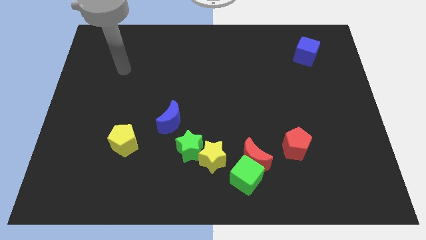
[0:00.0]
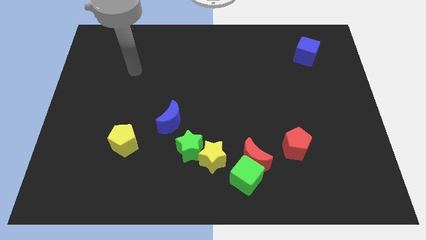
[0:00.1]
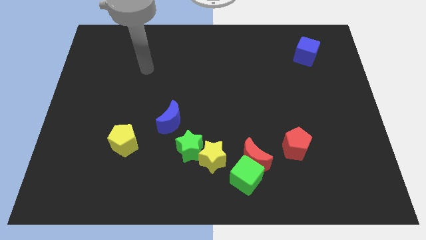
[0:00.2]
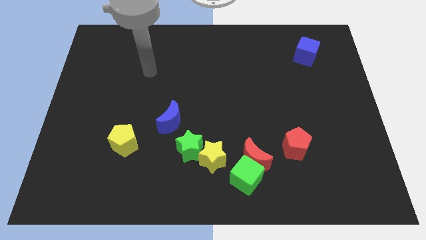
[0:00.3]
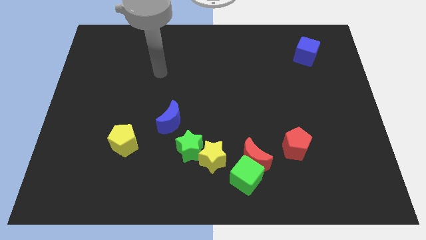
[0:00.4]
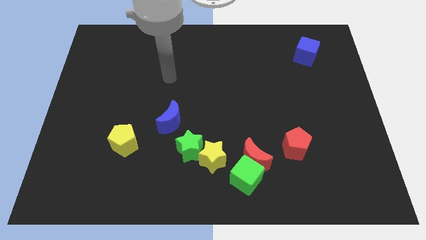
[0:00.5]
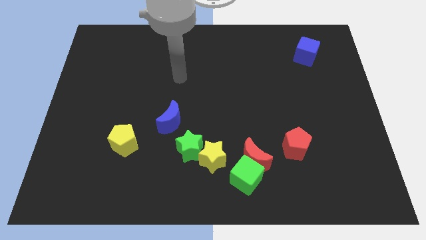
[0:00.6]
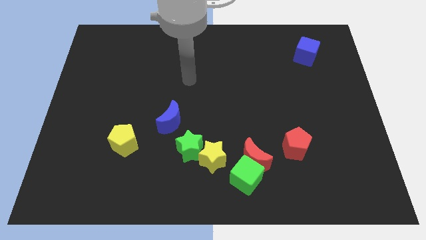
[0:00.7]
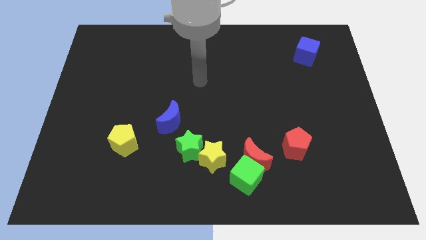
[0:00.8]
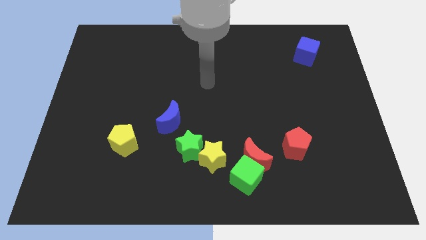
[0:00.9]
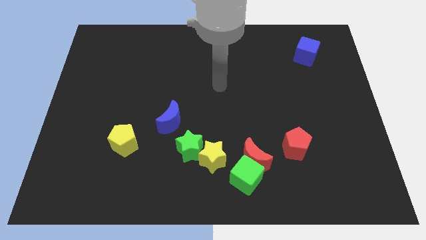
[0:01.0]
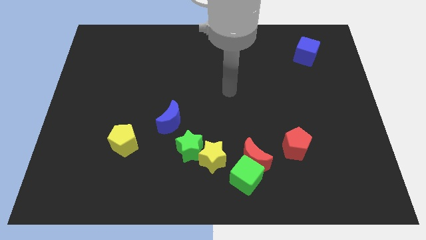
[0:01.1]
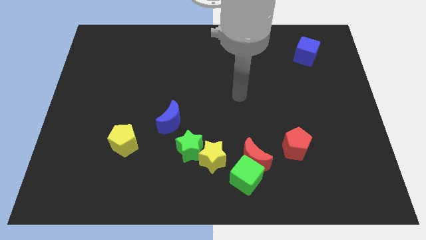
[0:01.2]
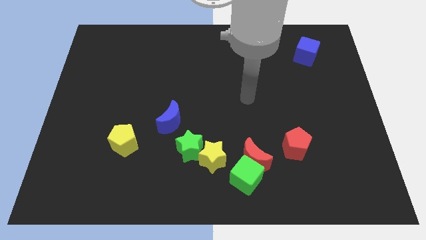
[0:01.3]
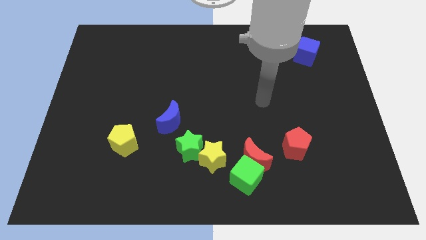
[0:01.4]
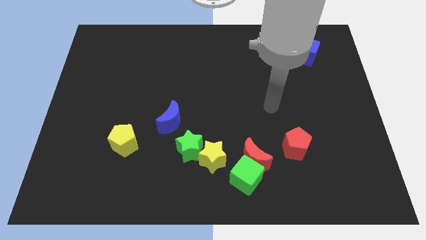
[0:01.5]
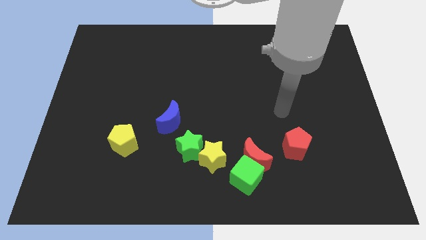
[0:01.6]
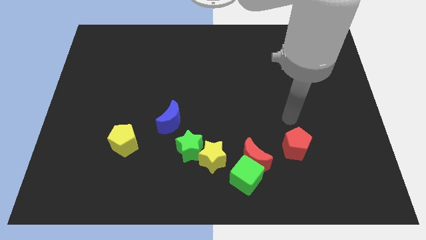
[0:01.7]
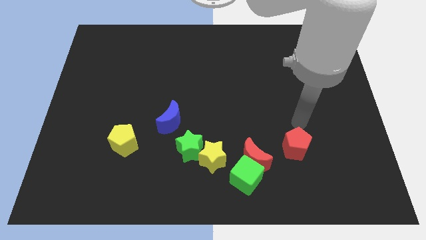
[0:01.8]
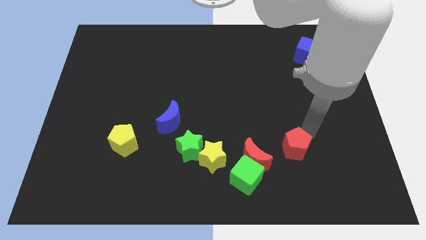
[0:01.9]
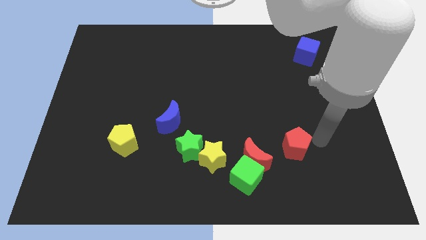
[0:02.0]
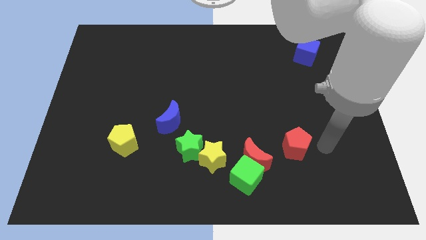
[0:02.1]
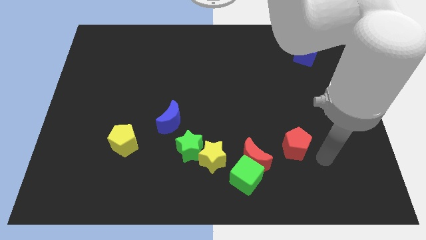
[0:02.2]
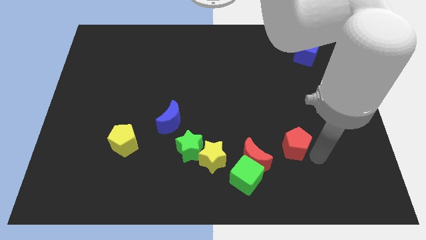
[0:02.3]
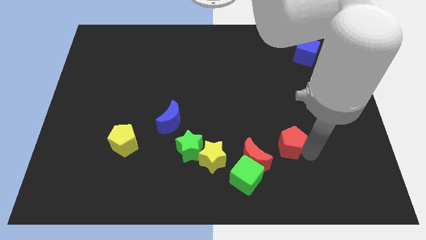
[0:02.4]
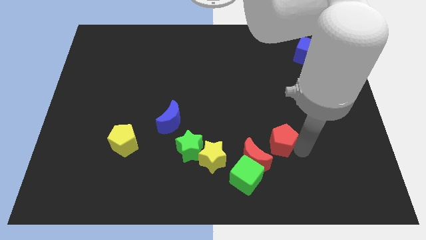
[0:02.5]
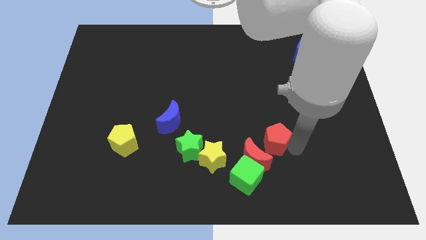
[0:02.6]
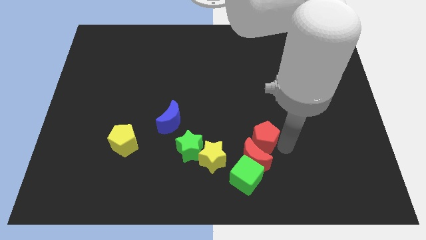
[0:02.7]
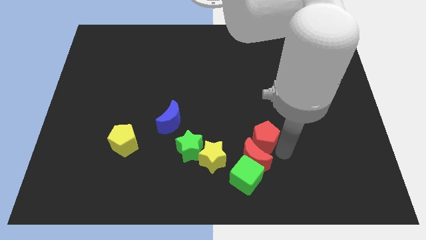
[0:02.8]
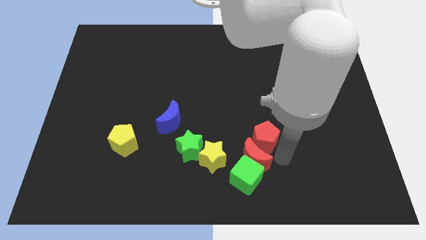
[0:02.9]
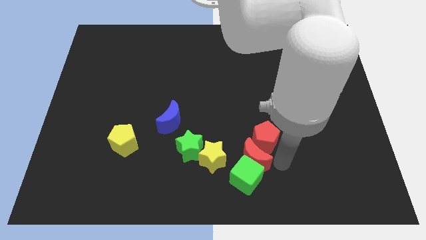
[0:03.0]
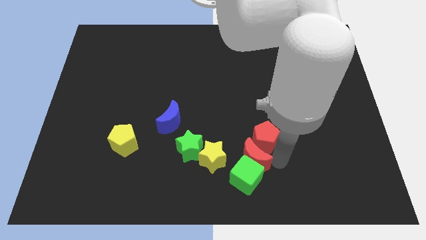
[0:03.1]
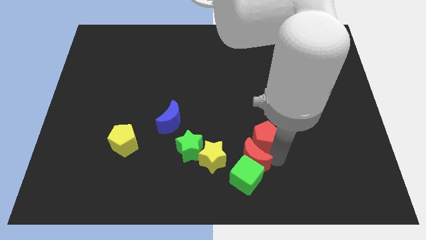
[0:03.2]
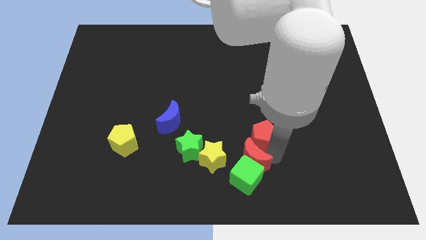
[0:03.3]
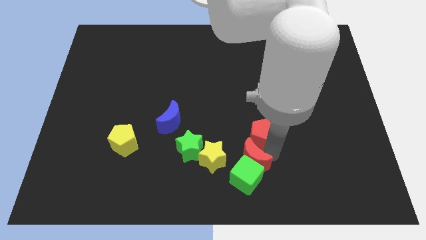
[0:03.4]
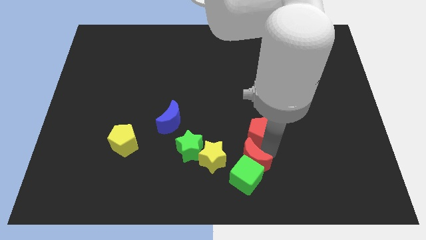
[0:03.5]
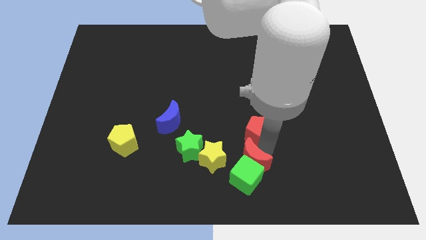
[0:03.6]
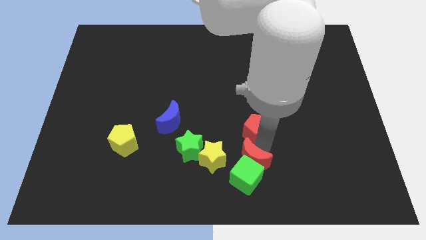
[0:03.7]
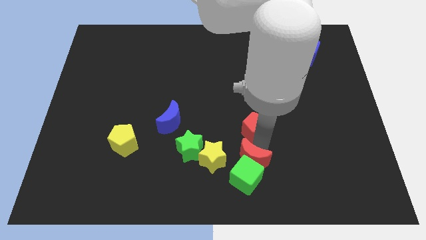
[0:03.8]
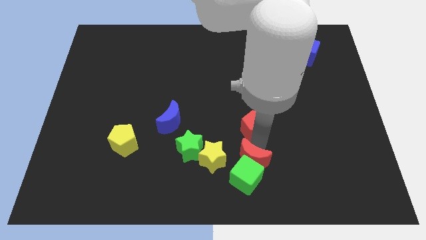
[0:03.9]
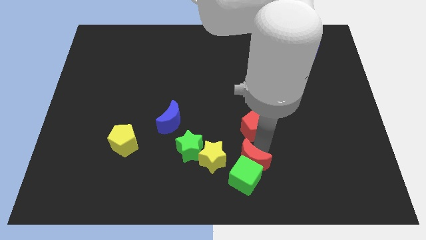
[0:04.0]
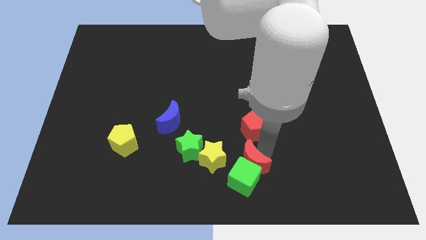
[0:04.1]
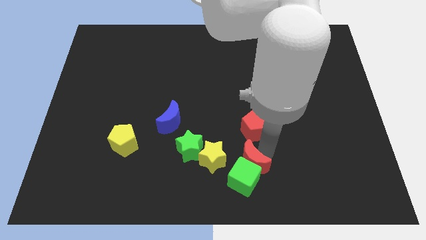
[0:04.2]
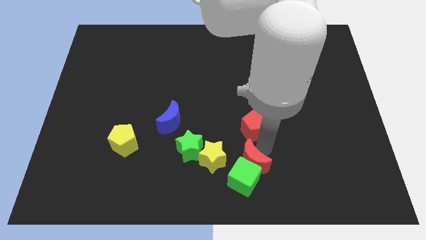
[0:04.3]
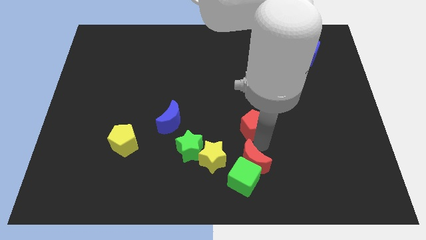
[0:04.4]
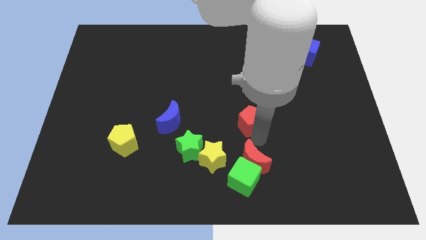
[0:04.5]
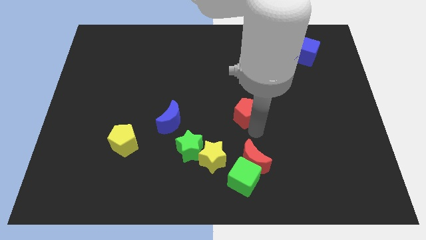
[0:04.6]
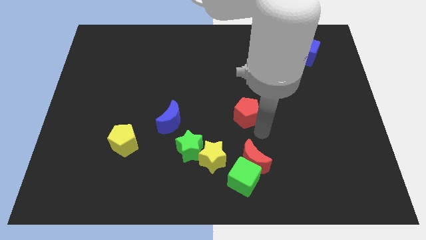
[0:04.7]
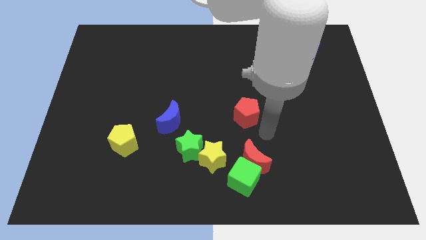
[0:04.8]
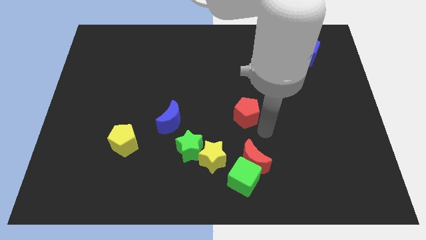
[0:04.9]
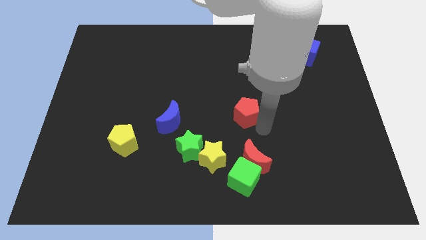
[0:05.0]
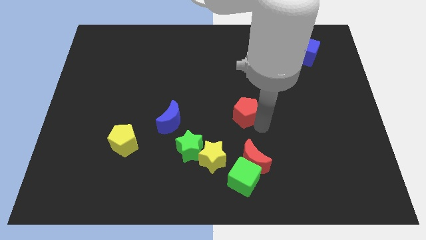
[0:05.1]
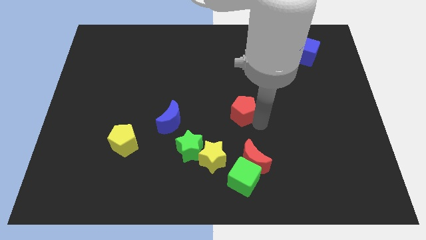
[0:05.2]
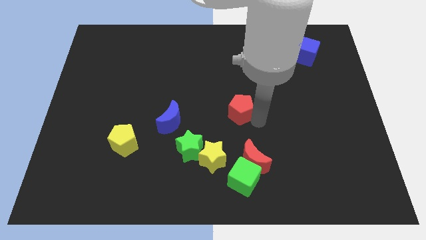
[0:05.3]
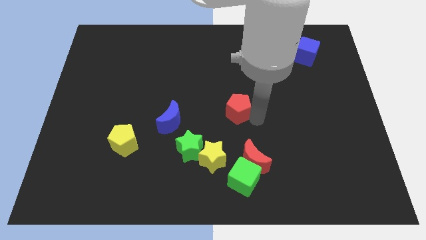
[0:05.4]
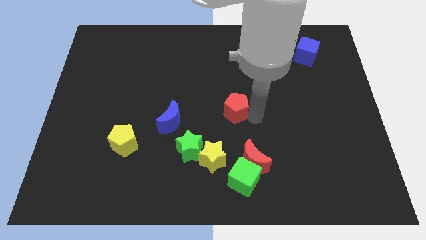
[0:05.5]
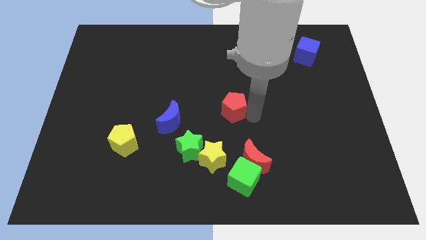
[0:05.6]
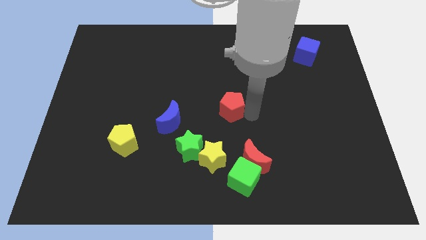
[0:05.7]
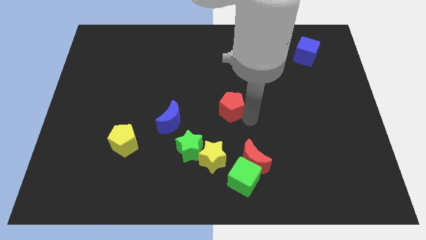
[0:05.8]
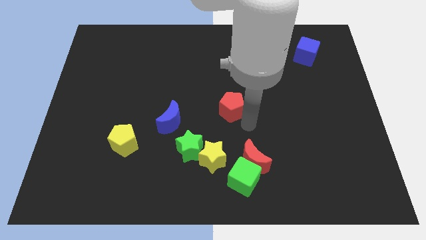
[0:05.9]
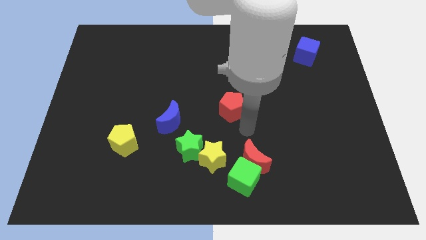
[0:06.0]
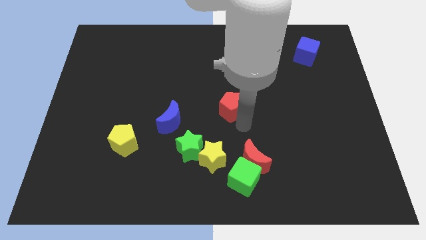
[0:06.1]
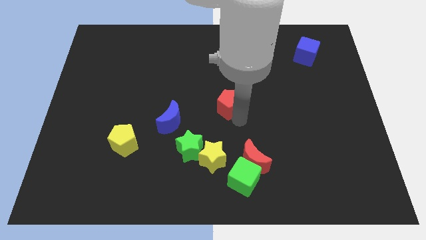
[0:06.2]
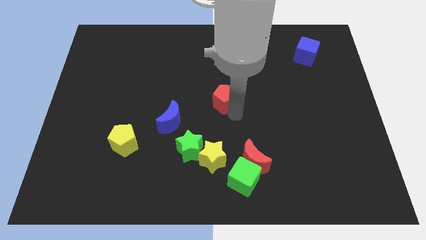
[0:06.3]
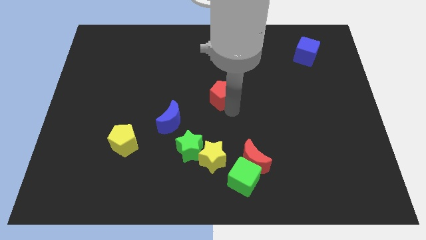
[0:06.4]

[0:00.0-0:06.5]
push the red pentagon upwards and left diagonally

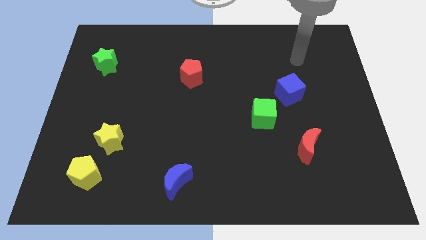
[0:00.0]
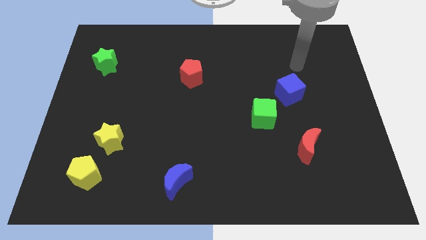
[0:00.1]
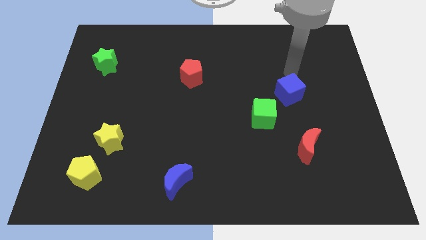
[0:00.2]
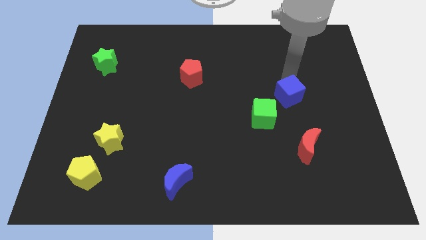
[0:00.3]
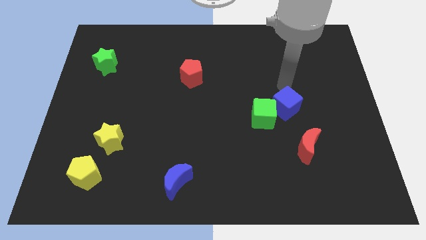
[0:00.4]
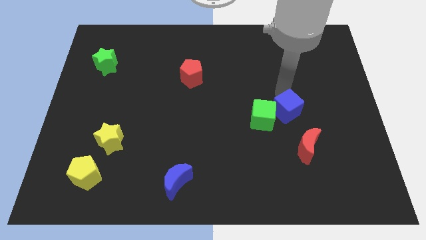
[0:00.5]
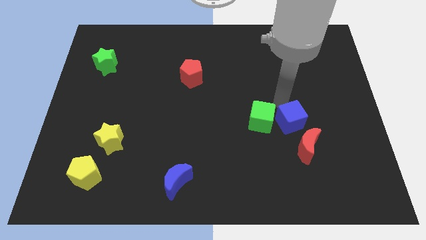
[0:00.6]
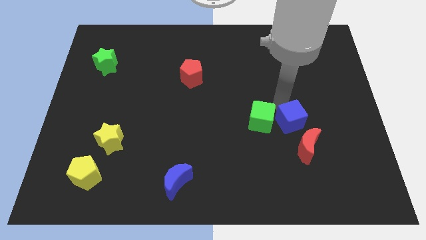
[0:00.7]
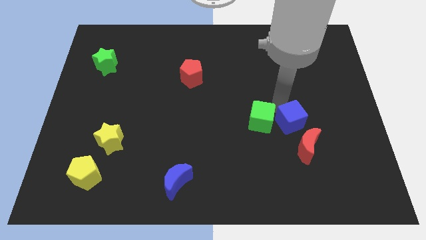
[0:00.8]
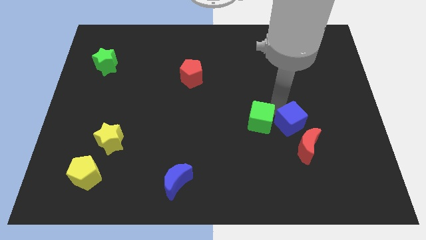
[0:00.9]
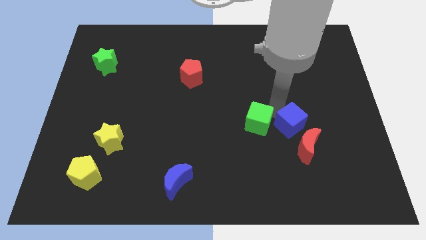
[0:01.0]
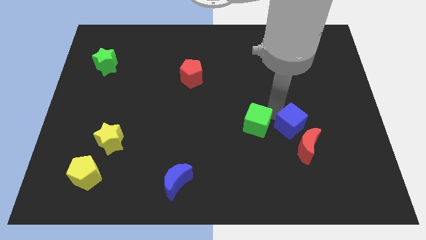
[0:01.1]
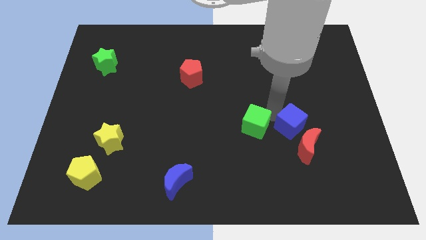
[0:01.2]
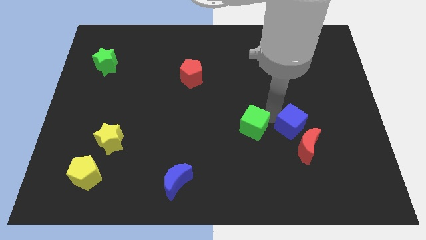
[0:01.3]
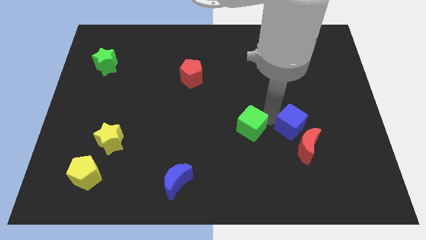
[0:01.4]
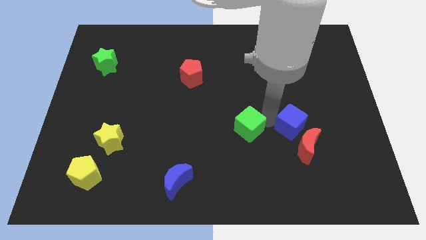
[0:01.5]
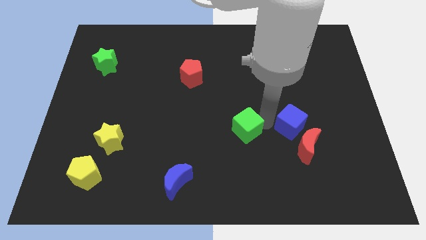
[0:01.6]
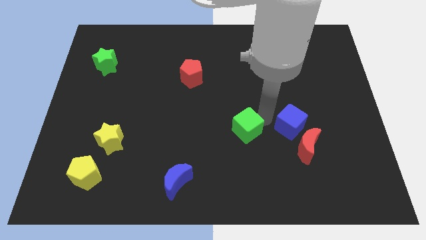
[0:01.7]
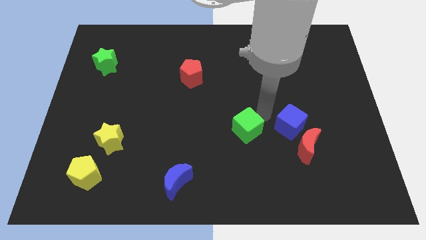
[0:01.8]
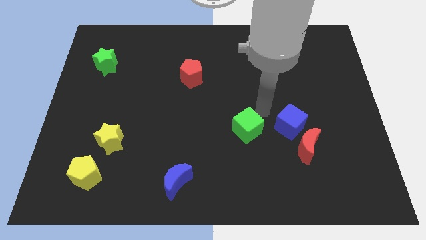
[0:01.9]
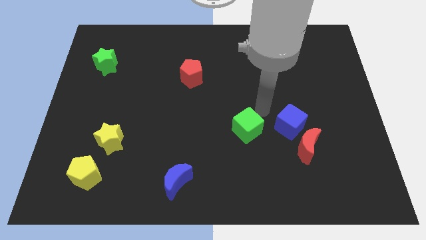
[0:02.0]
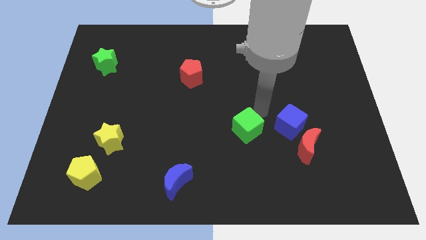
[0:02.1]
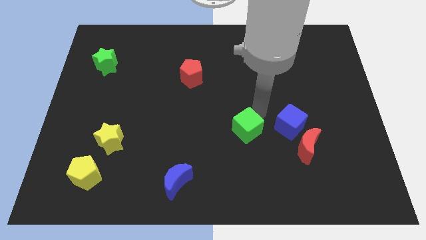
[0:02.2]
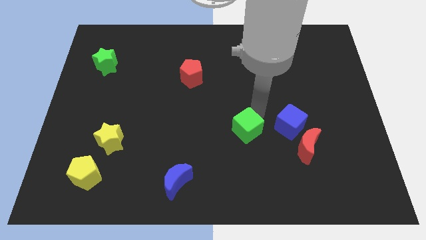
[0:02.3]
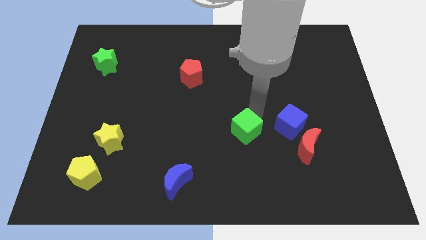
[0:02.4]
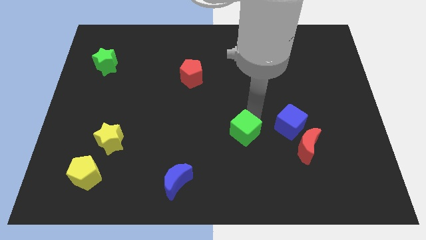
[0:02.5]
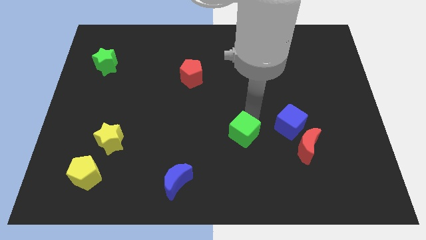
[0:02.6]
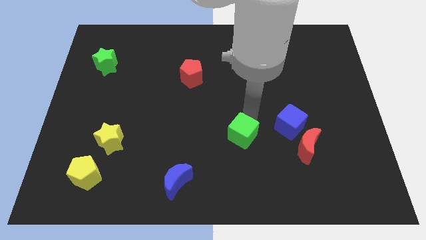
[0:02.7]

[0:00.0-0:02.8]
push the green cube down and then left a little bit
